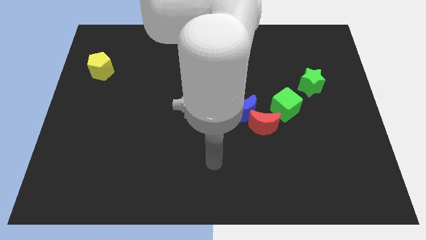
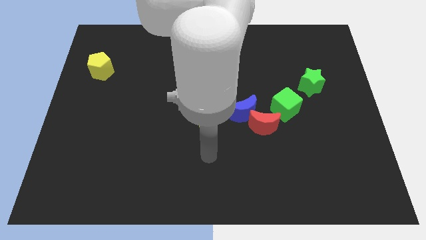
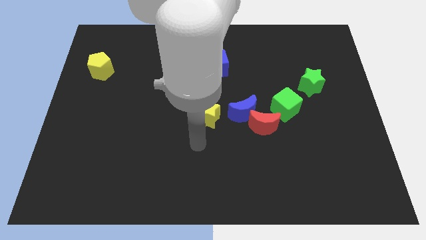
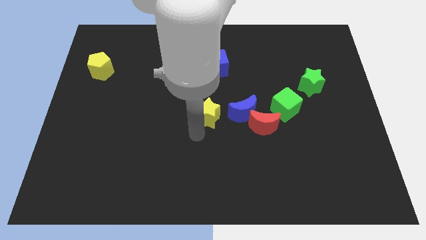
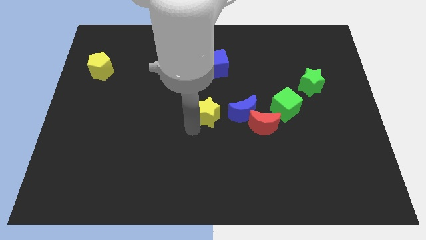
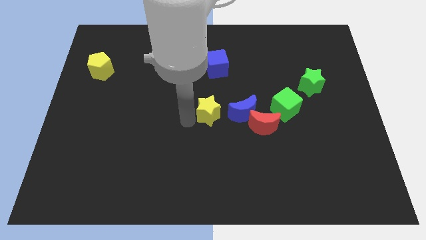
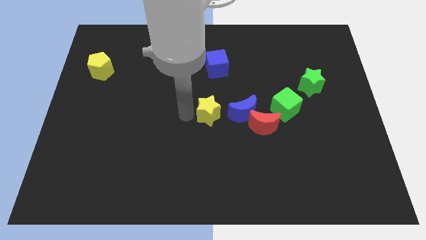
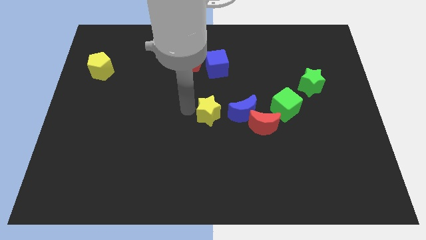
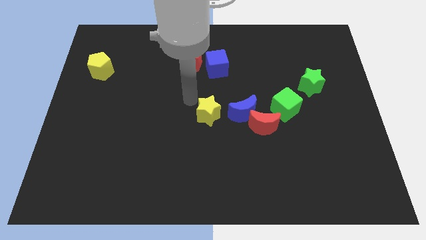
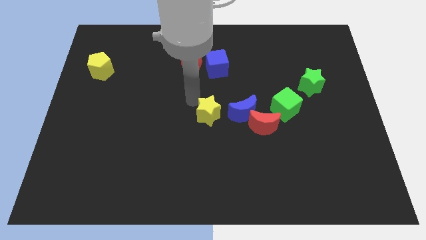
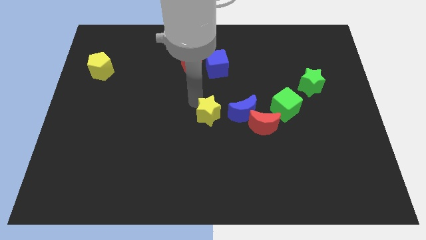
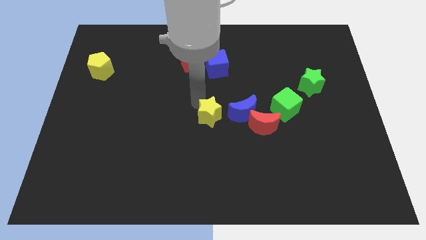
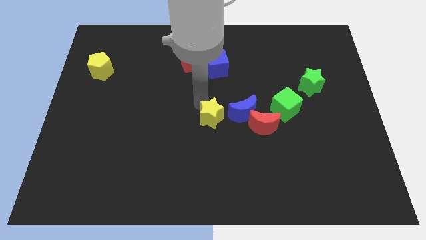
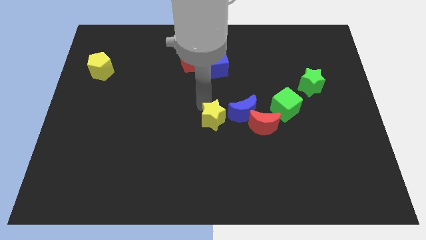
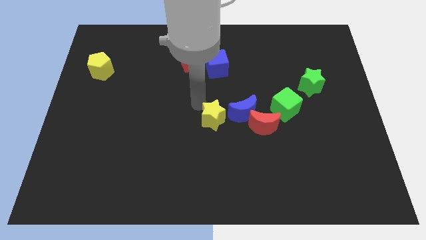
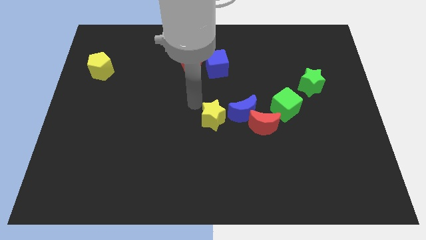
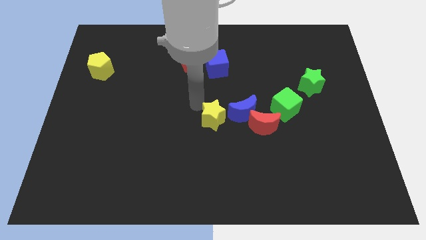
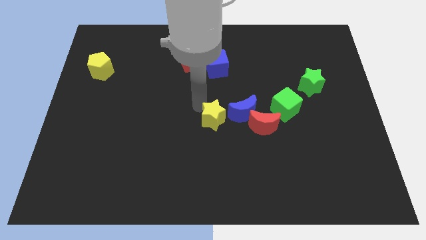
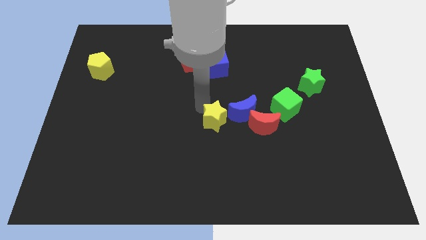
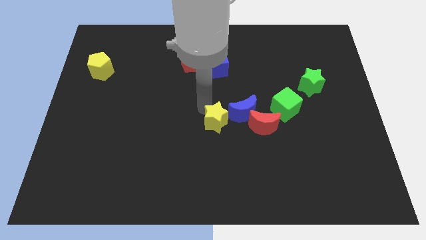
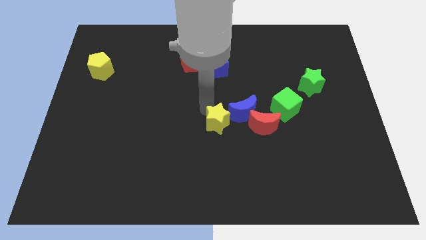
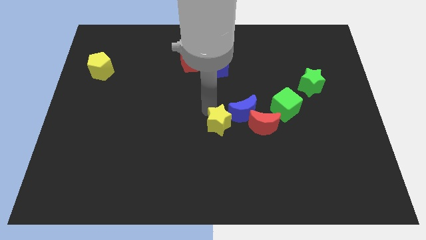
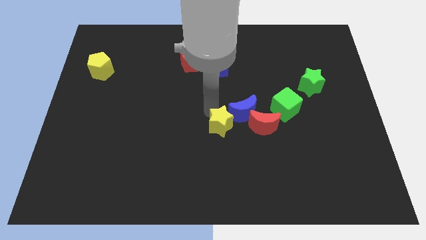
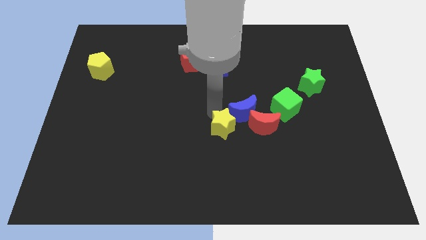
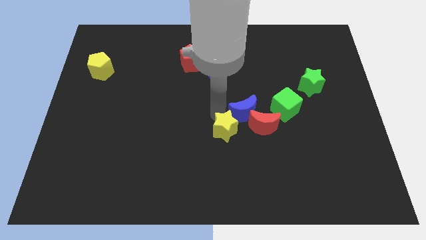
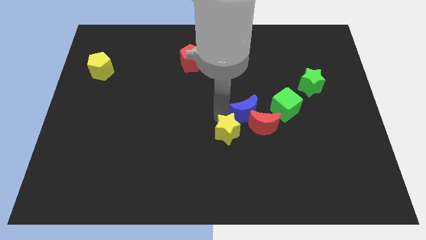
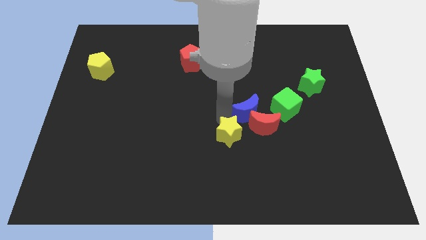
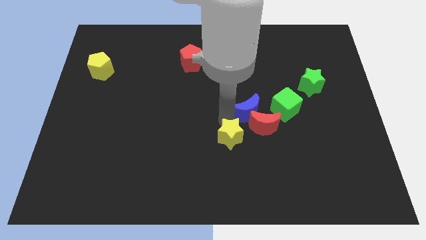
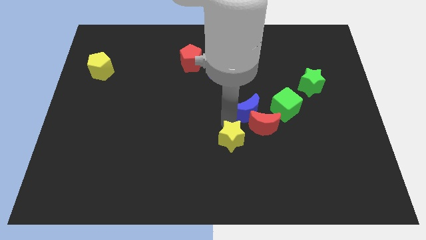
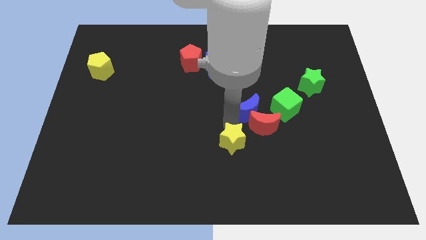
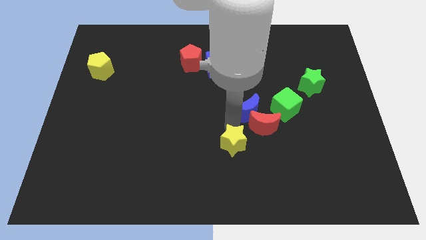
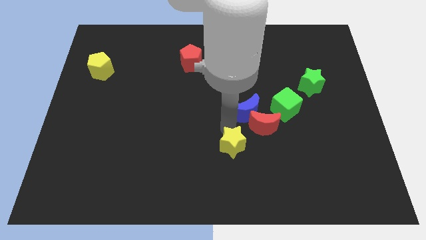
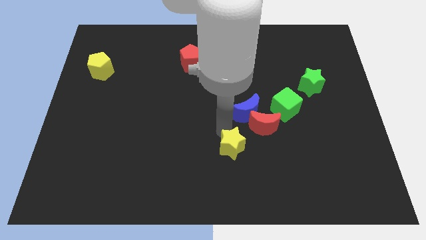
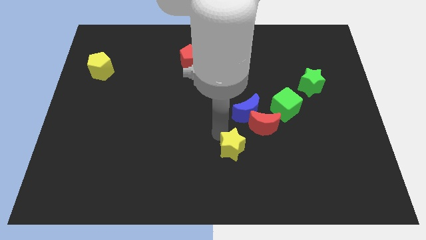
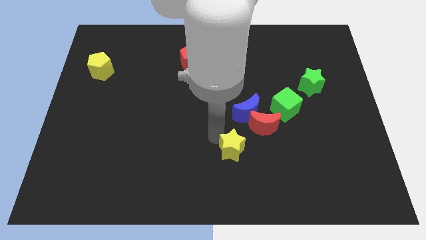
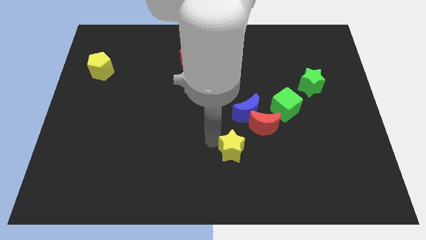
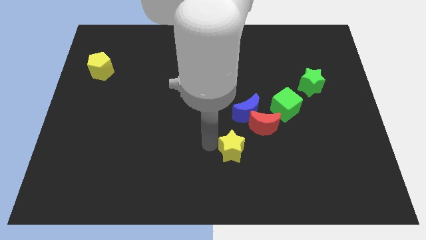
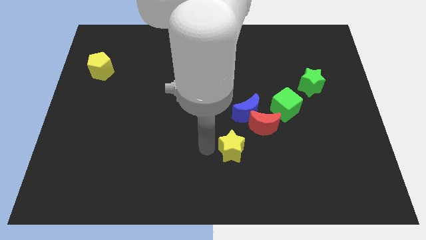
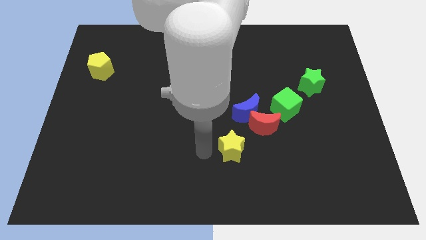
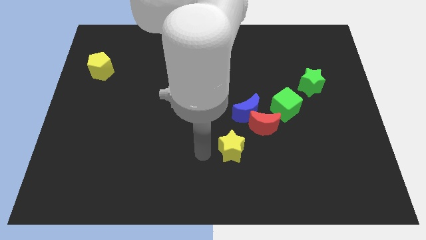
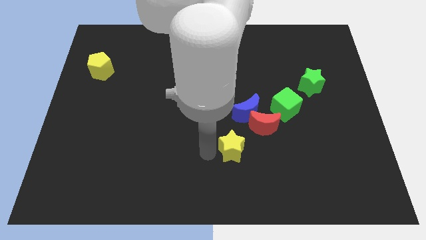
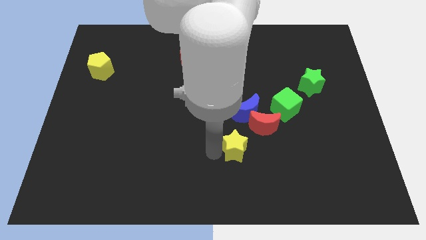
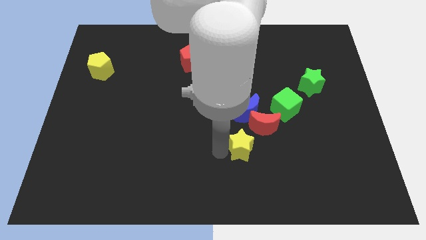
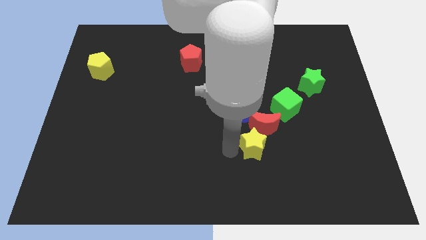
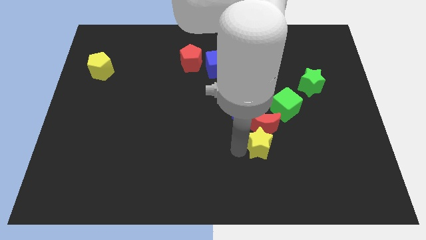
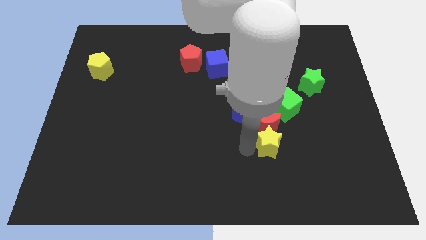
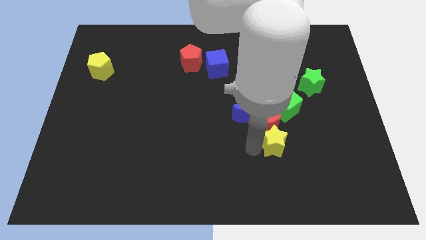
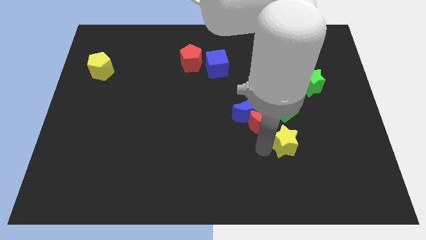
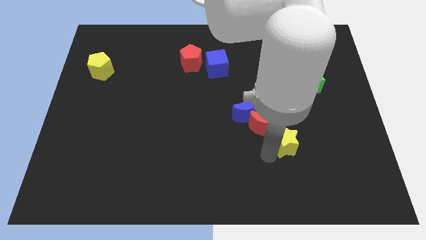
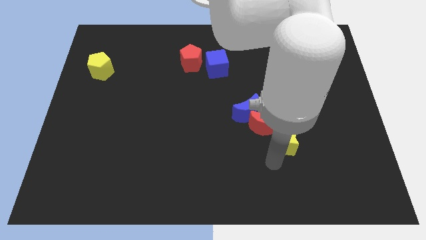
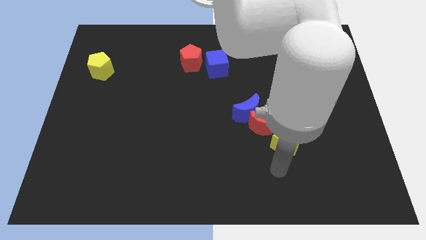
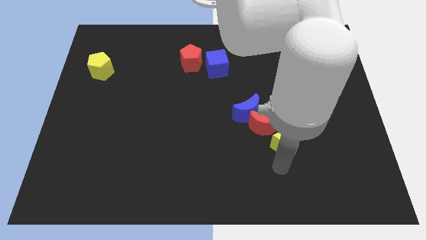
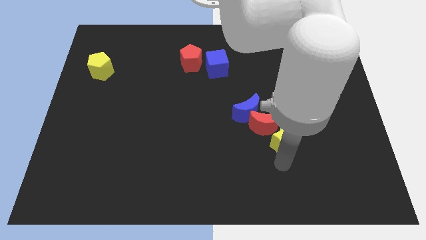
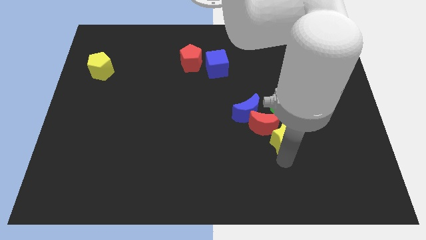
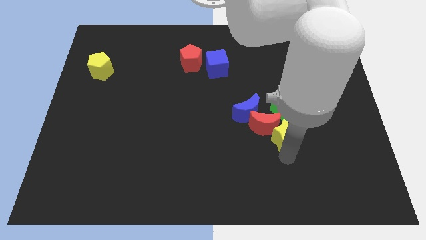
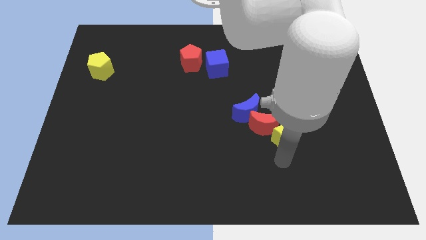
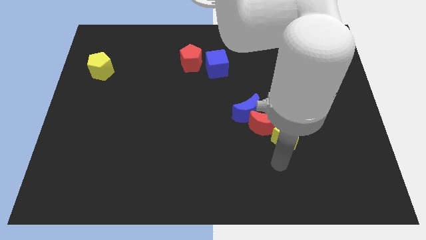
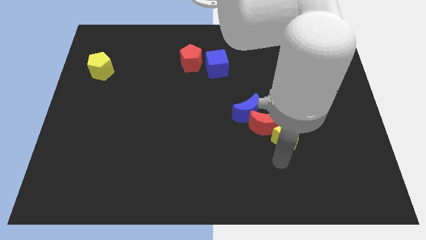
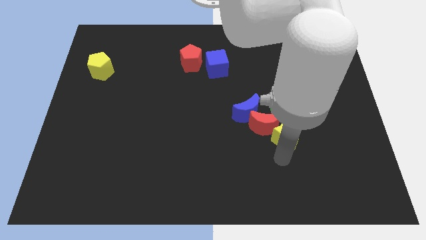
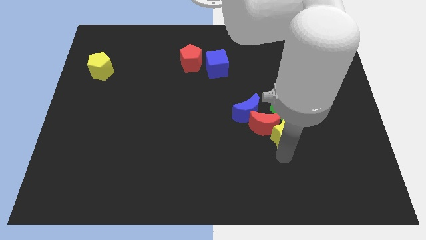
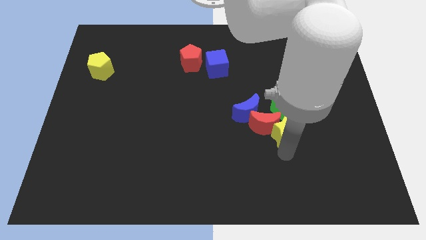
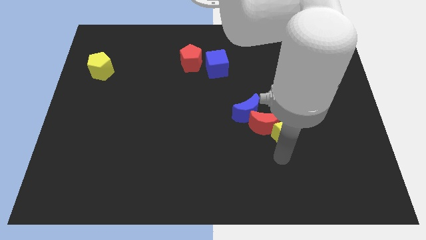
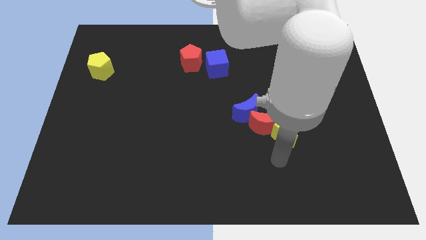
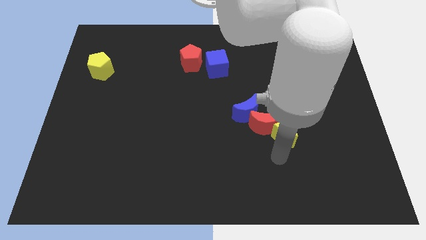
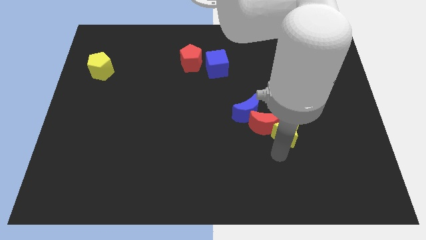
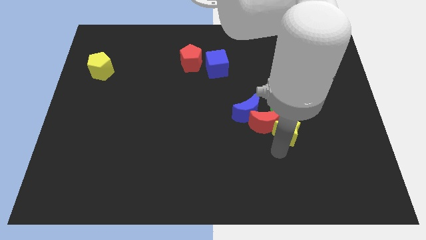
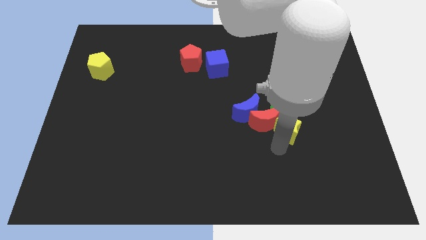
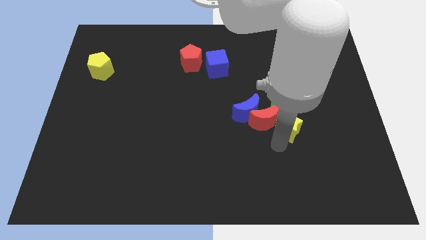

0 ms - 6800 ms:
move the yellow star to the right side of the blue moon

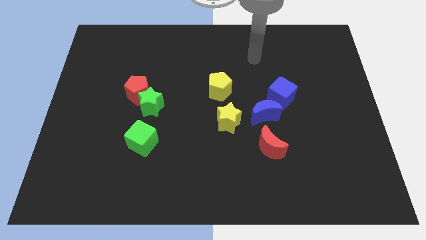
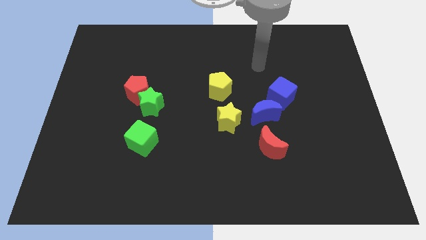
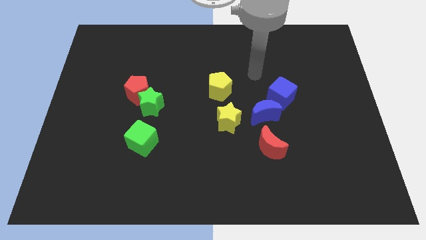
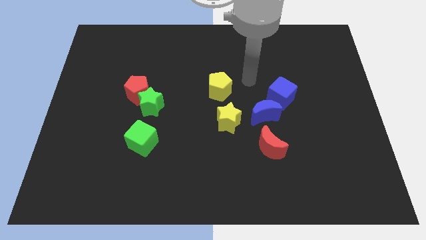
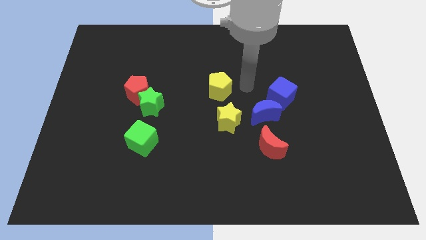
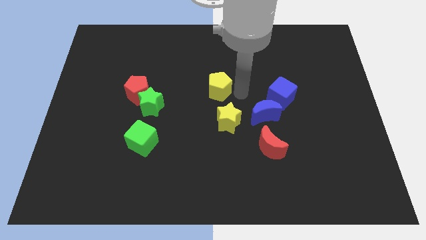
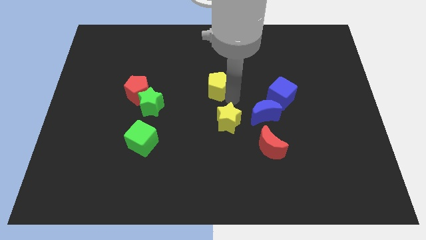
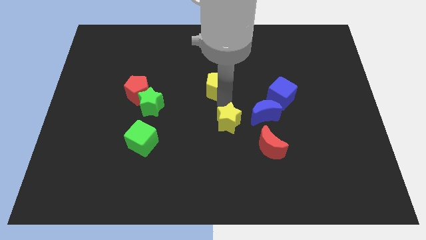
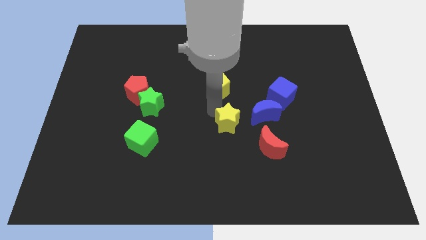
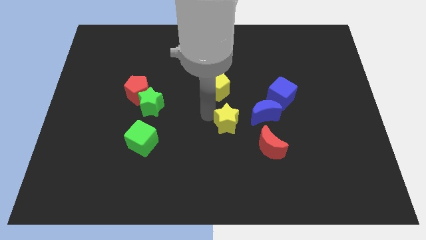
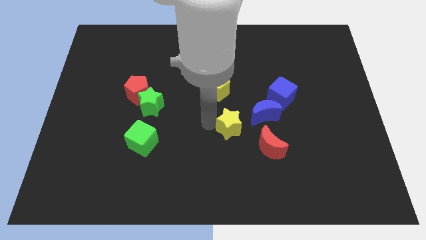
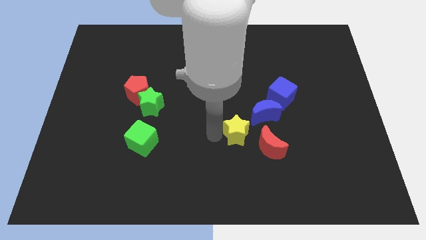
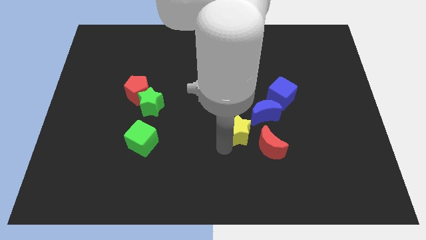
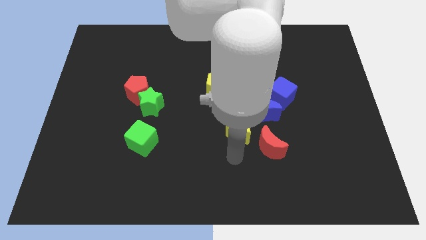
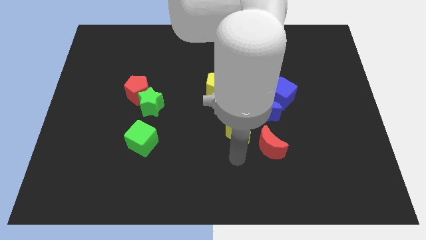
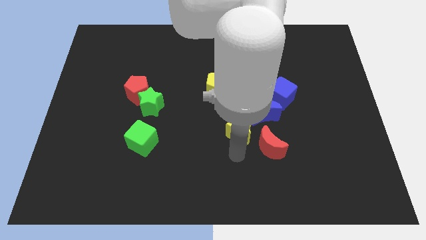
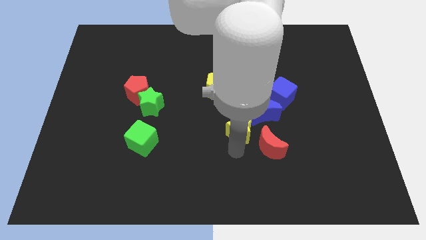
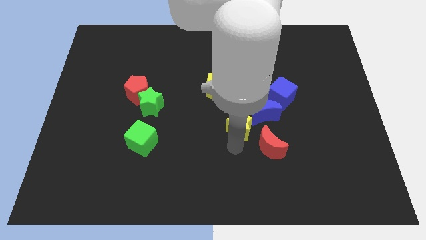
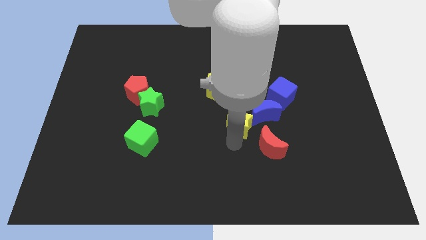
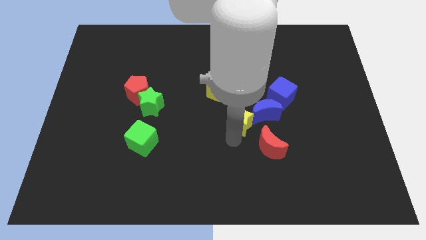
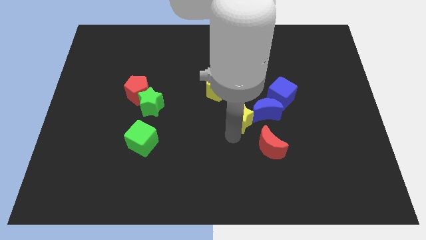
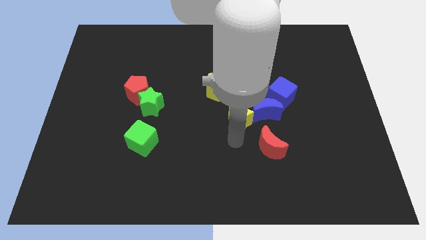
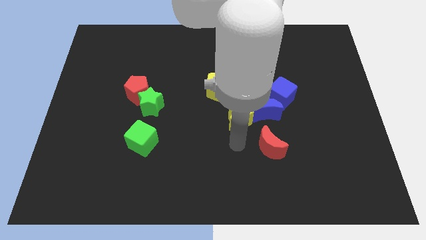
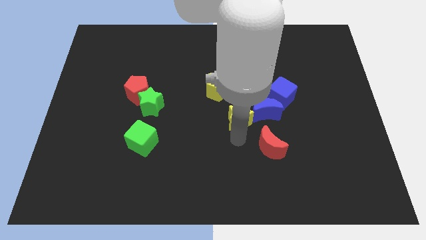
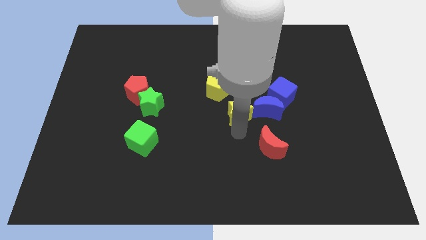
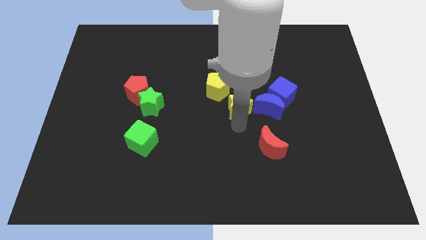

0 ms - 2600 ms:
put the yellow star diagonally up and to the left of the blue moon
